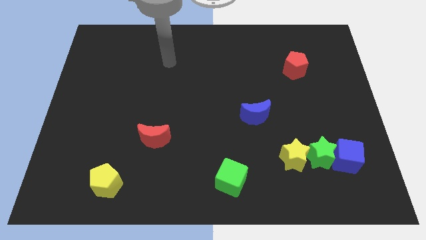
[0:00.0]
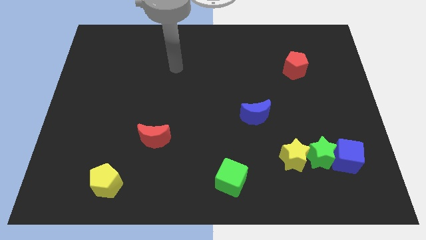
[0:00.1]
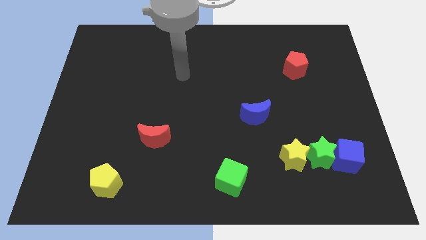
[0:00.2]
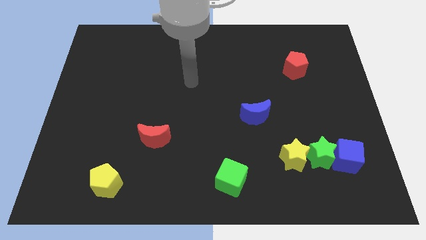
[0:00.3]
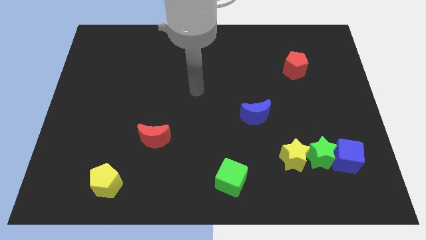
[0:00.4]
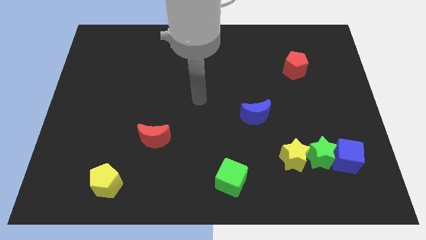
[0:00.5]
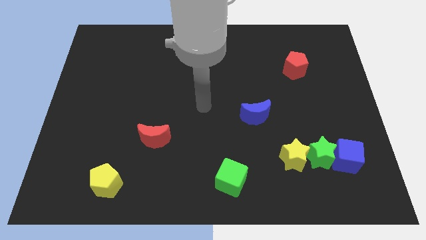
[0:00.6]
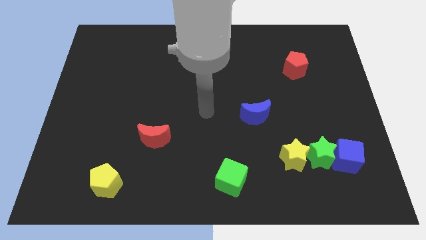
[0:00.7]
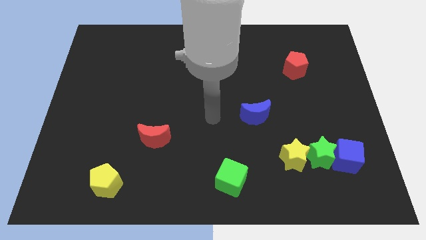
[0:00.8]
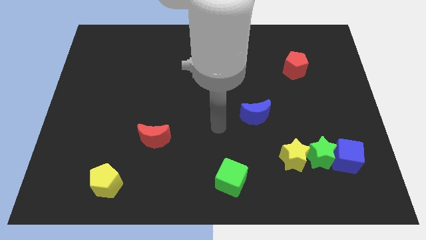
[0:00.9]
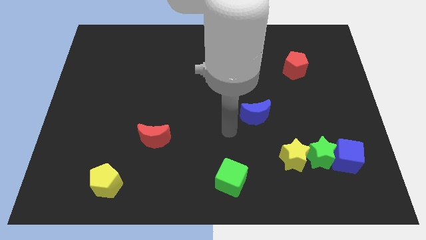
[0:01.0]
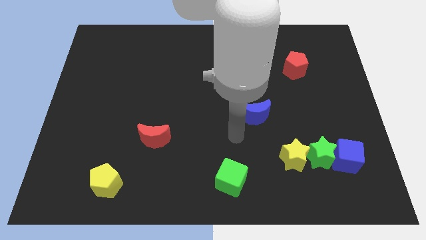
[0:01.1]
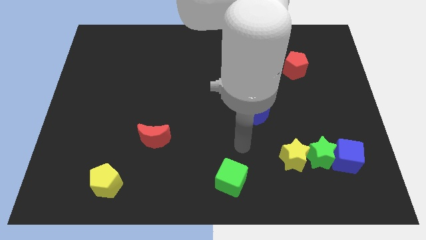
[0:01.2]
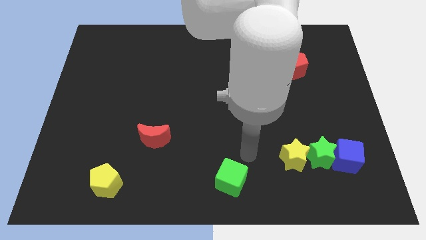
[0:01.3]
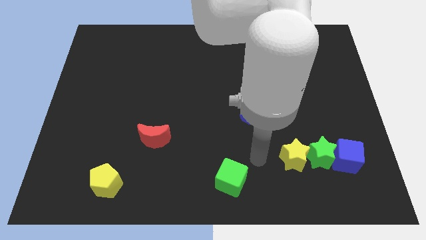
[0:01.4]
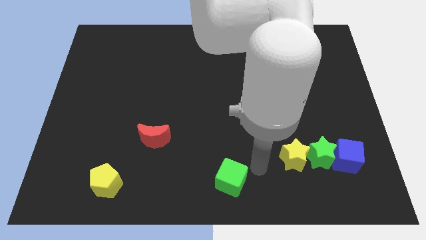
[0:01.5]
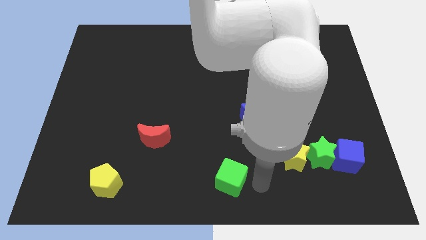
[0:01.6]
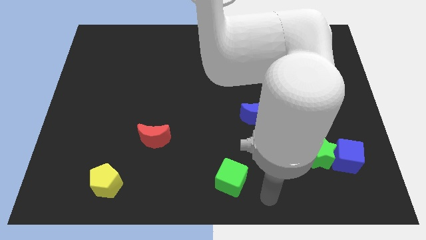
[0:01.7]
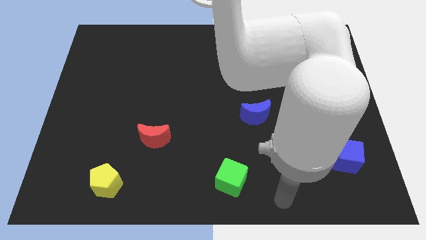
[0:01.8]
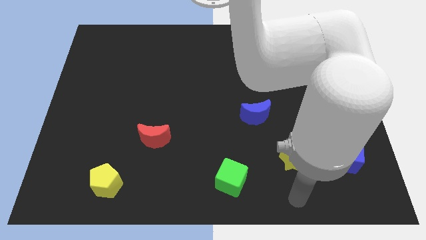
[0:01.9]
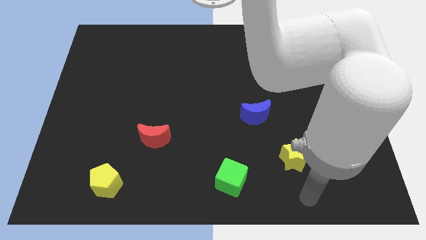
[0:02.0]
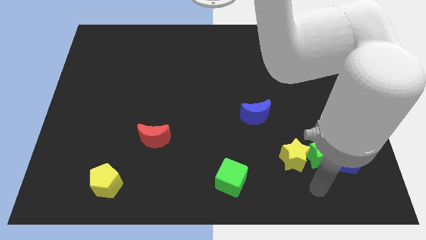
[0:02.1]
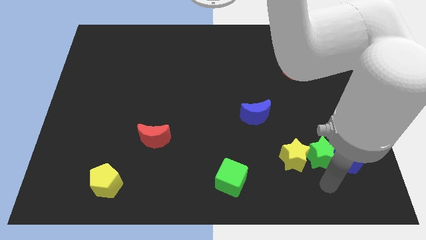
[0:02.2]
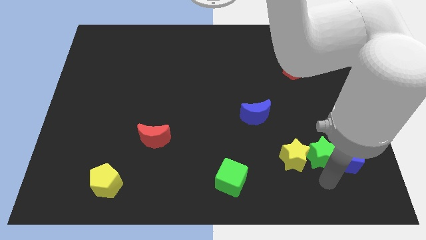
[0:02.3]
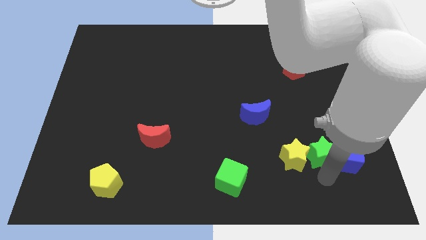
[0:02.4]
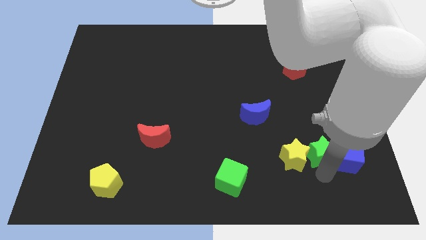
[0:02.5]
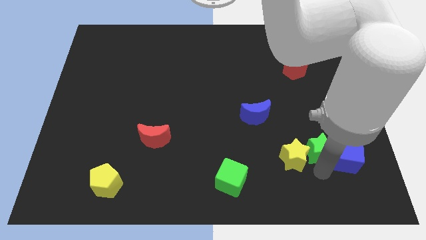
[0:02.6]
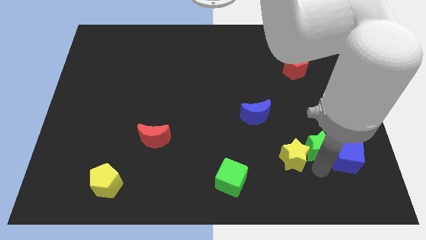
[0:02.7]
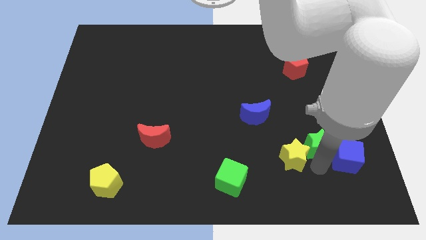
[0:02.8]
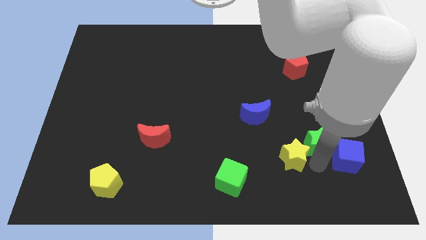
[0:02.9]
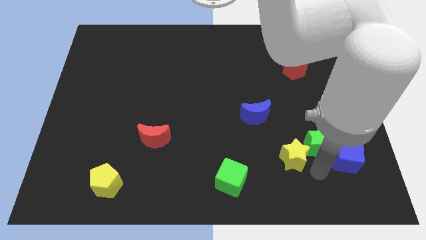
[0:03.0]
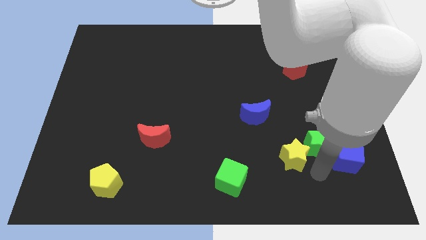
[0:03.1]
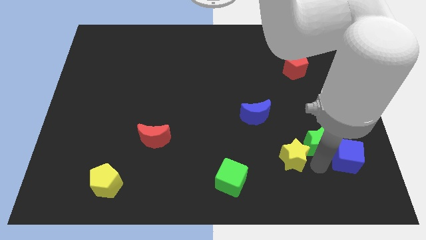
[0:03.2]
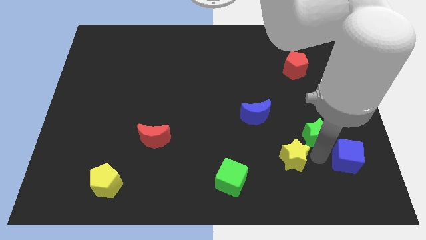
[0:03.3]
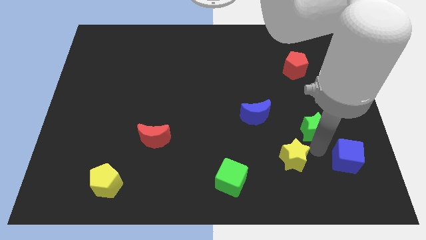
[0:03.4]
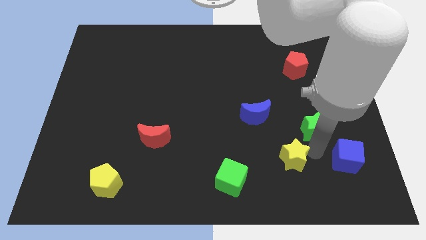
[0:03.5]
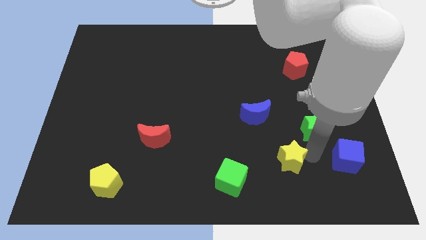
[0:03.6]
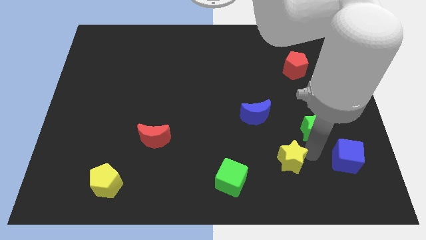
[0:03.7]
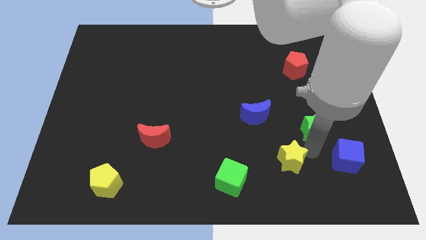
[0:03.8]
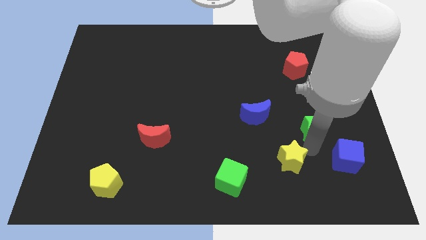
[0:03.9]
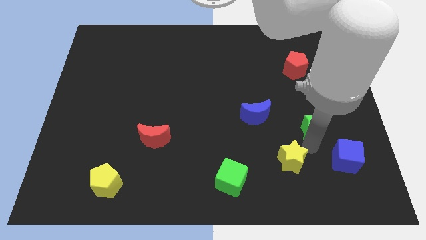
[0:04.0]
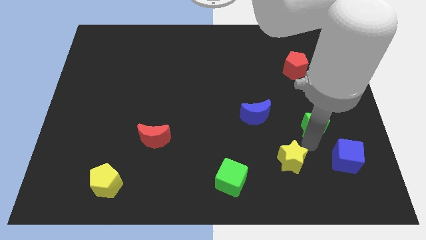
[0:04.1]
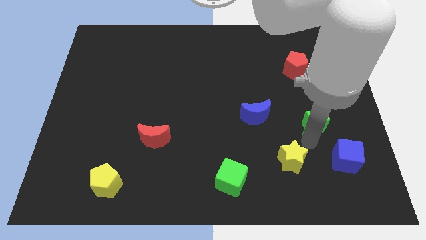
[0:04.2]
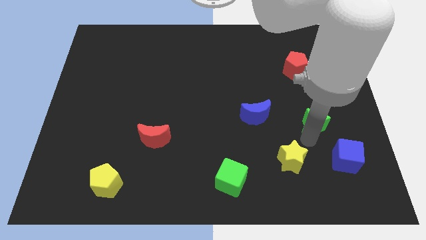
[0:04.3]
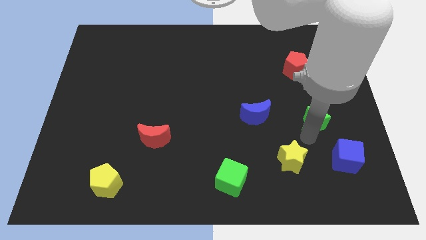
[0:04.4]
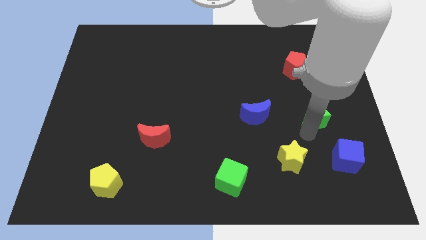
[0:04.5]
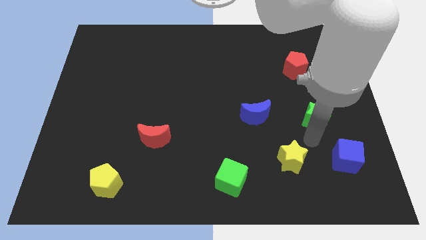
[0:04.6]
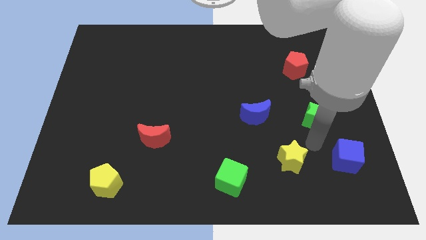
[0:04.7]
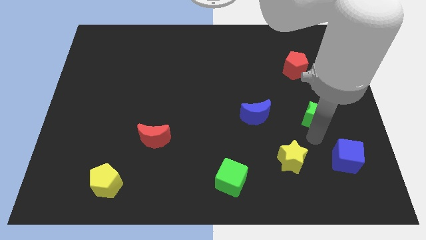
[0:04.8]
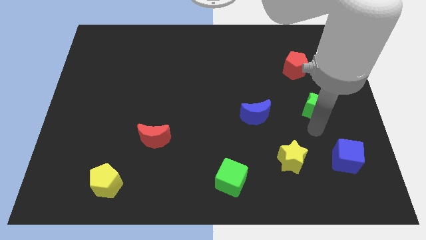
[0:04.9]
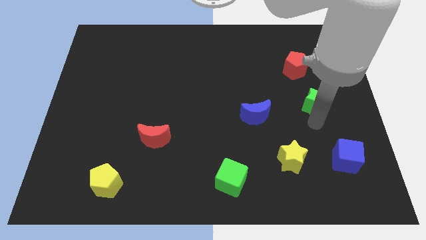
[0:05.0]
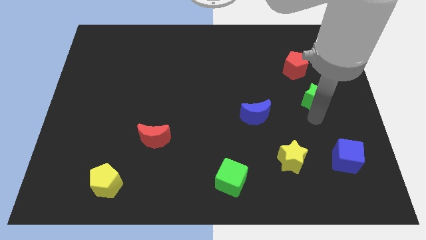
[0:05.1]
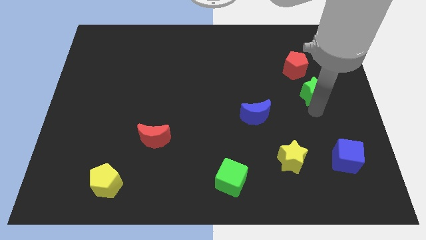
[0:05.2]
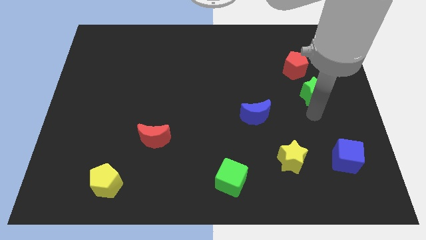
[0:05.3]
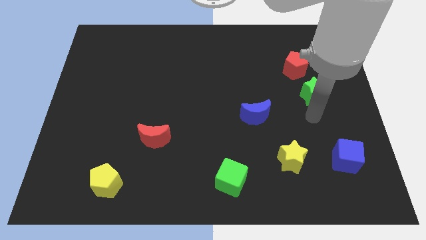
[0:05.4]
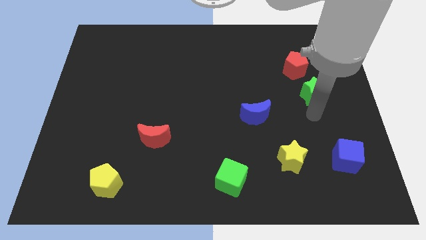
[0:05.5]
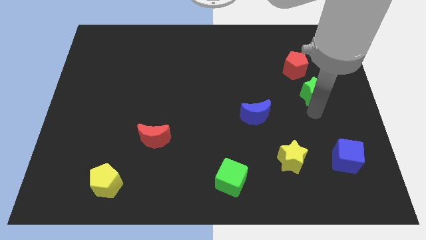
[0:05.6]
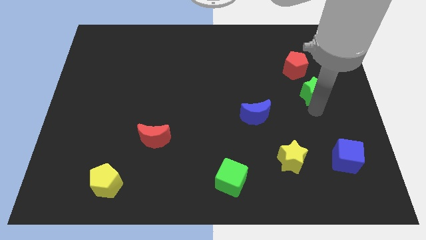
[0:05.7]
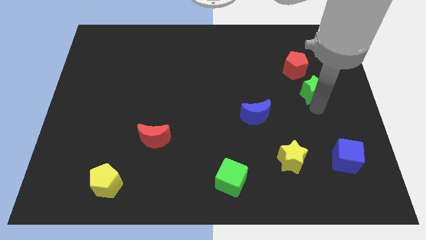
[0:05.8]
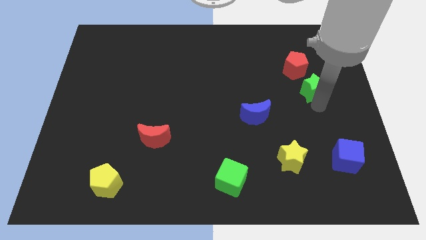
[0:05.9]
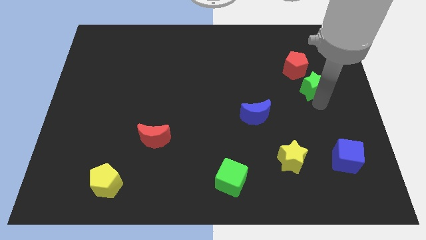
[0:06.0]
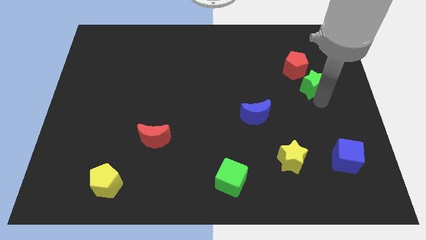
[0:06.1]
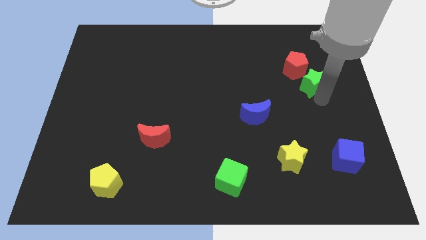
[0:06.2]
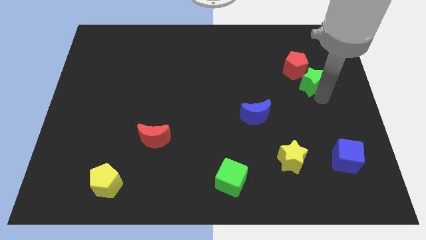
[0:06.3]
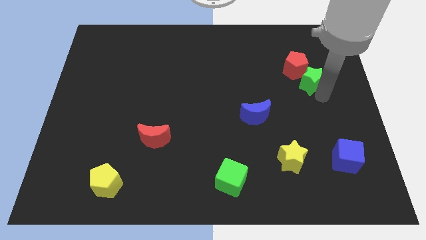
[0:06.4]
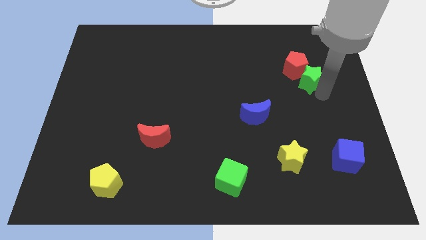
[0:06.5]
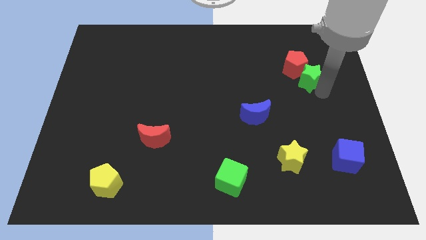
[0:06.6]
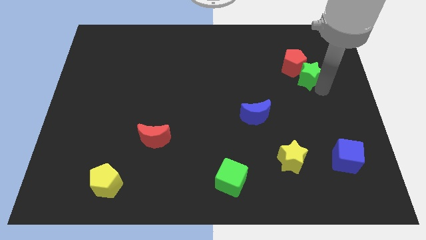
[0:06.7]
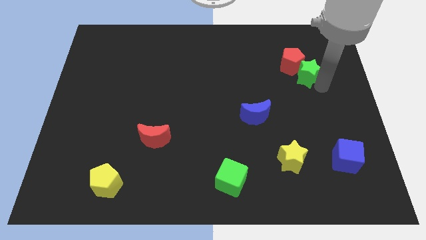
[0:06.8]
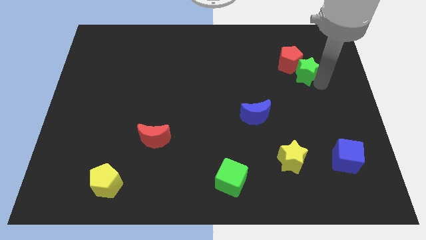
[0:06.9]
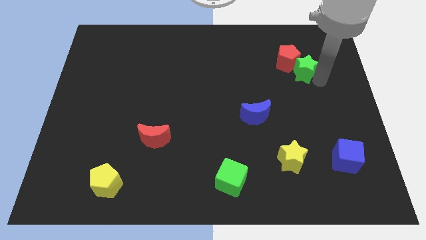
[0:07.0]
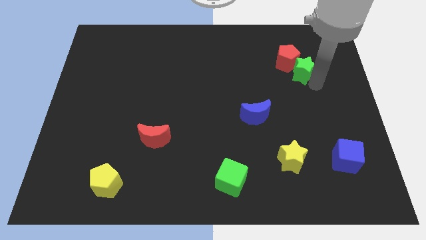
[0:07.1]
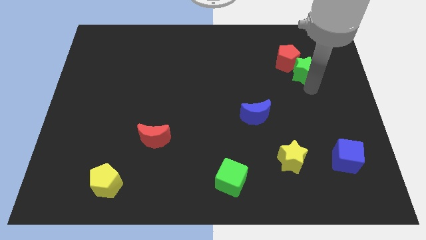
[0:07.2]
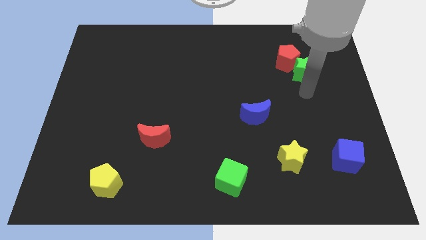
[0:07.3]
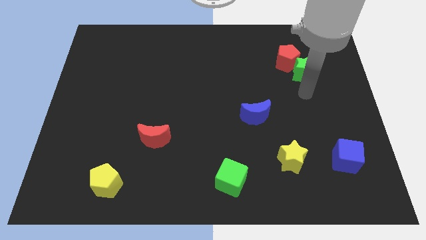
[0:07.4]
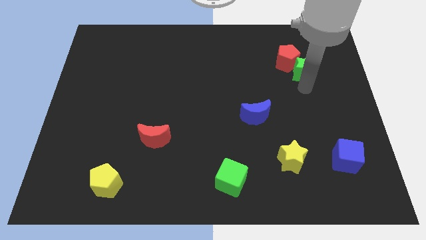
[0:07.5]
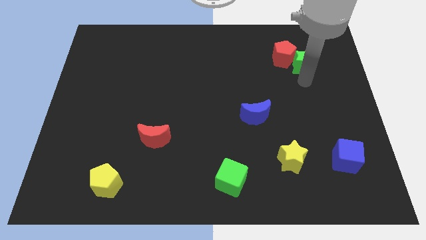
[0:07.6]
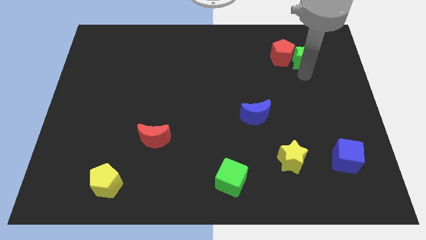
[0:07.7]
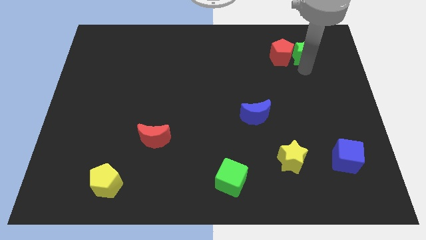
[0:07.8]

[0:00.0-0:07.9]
put the green star diagonally up and to the right of the red pentagon
